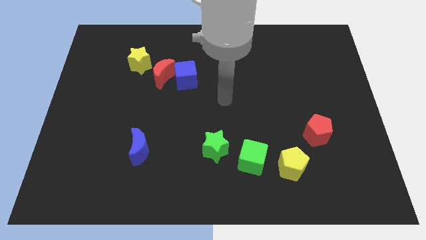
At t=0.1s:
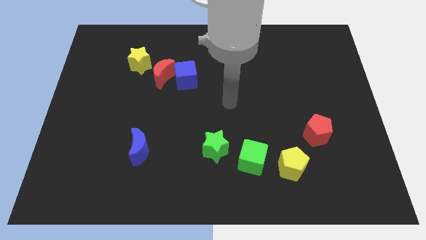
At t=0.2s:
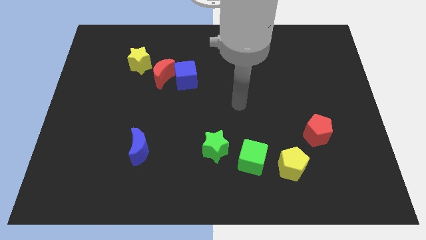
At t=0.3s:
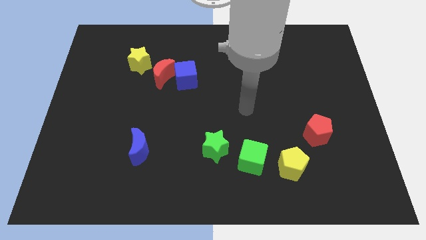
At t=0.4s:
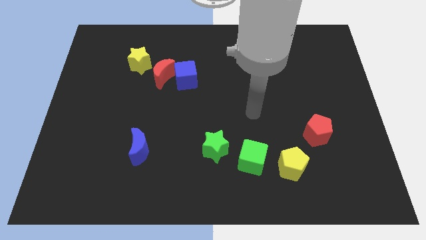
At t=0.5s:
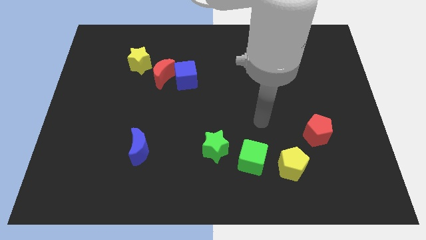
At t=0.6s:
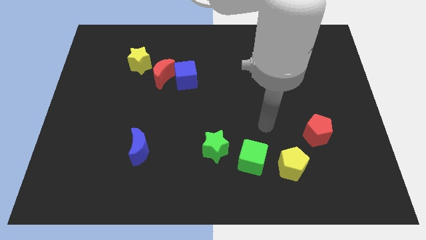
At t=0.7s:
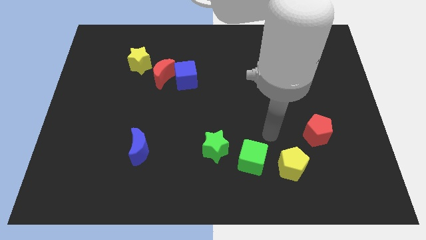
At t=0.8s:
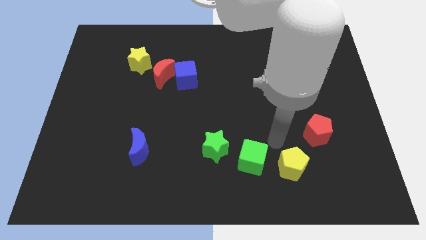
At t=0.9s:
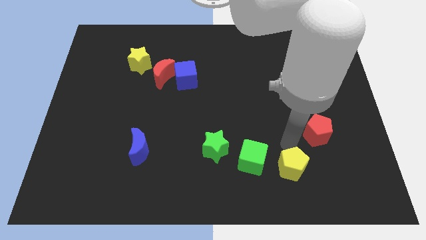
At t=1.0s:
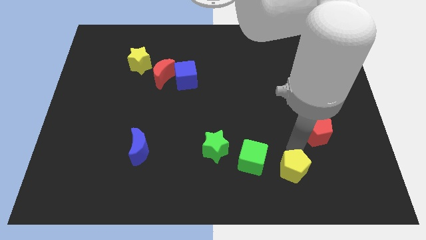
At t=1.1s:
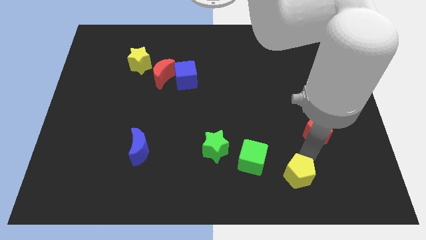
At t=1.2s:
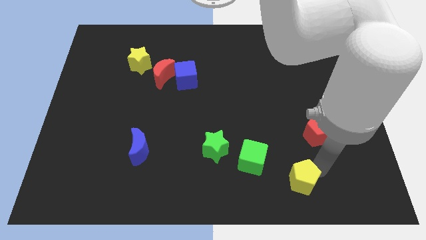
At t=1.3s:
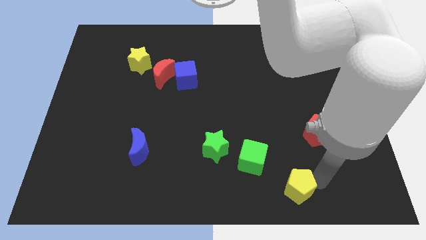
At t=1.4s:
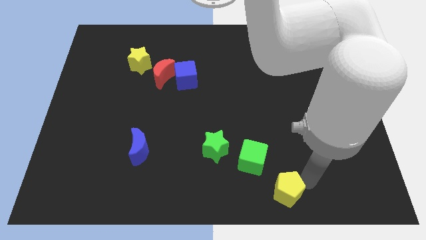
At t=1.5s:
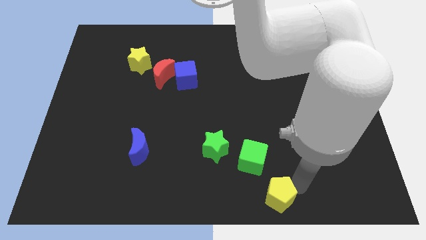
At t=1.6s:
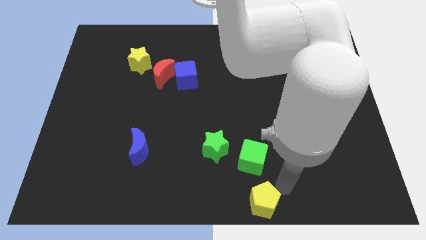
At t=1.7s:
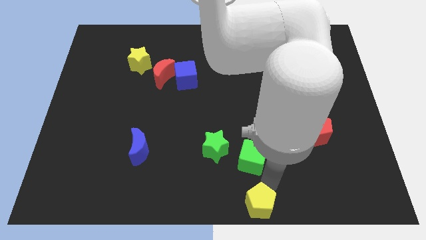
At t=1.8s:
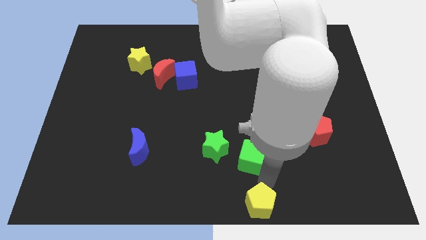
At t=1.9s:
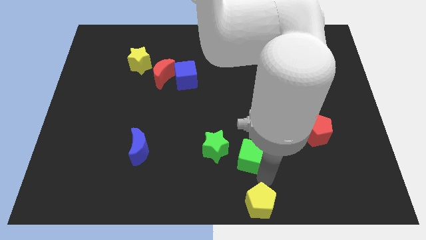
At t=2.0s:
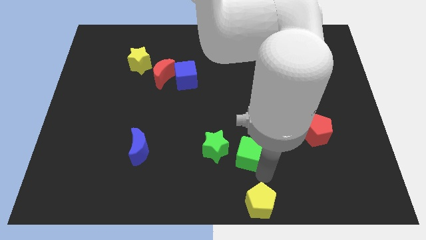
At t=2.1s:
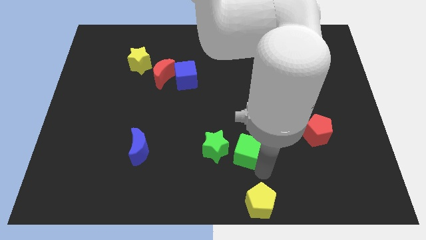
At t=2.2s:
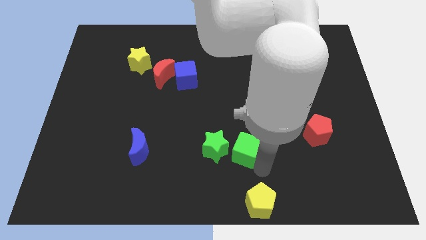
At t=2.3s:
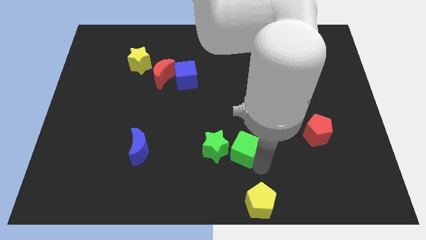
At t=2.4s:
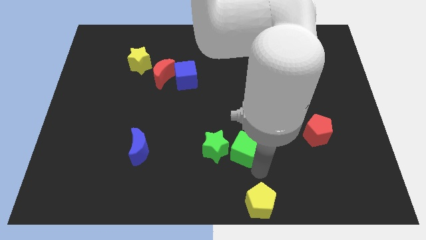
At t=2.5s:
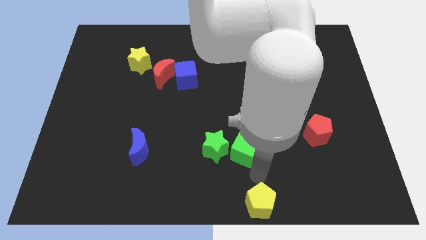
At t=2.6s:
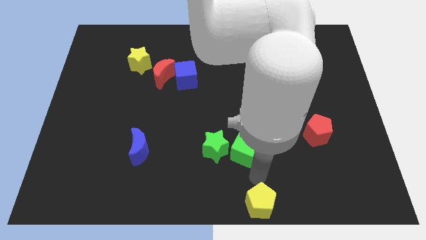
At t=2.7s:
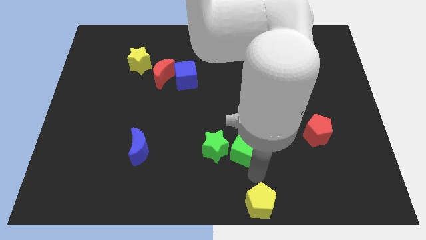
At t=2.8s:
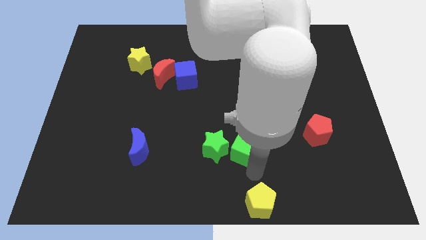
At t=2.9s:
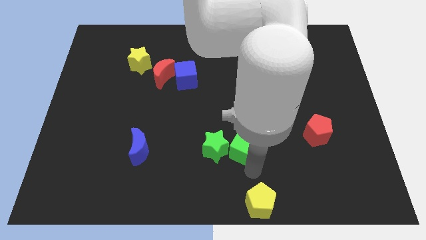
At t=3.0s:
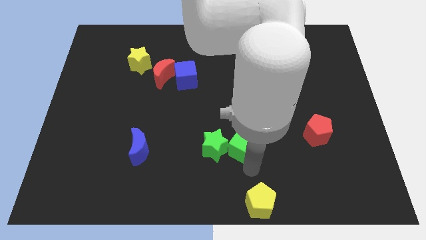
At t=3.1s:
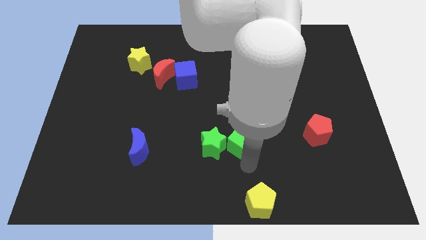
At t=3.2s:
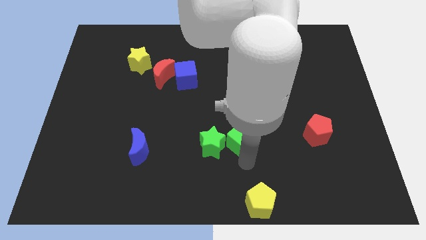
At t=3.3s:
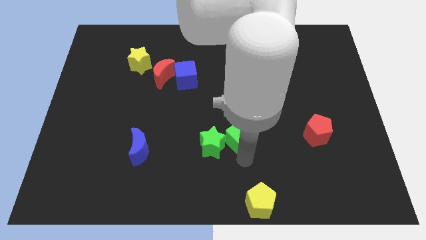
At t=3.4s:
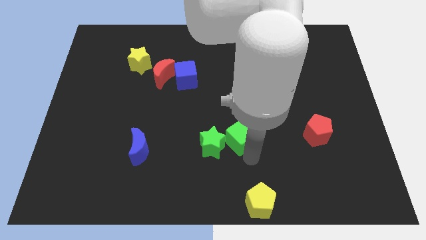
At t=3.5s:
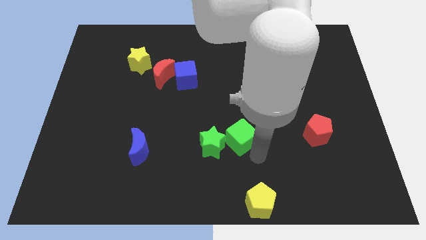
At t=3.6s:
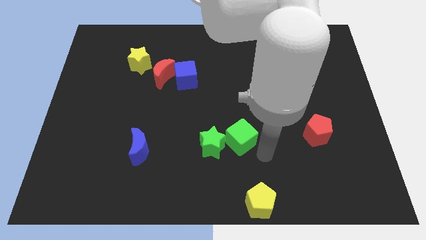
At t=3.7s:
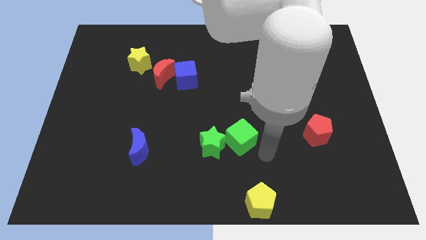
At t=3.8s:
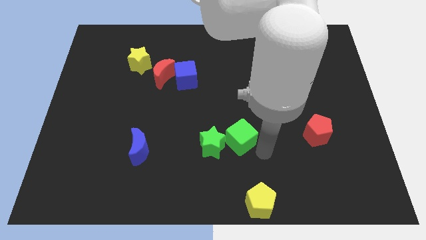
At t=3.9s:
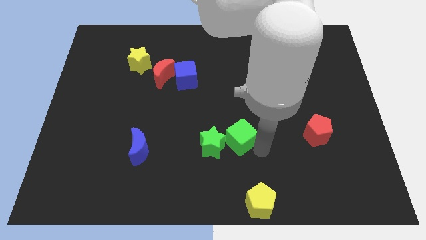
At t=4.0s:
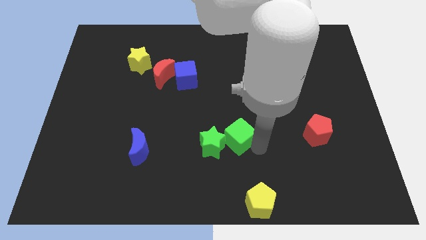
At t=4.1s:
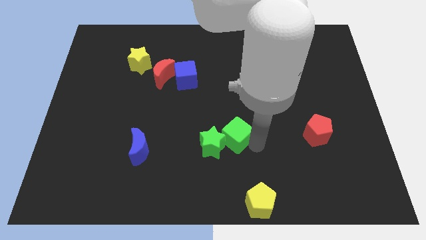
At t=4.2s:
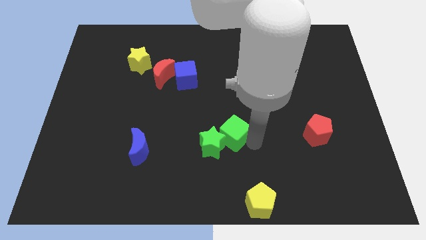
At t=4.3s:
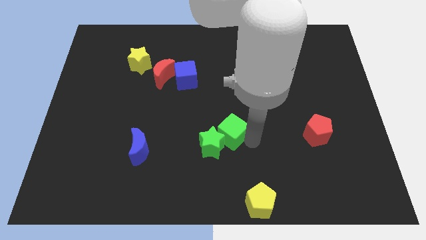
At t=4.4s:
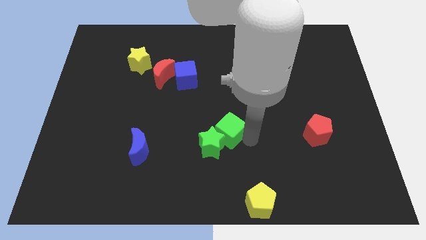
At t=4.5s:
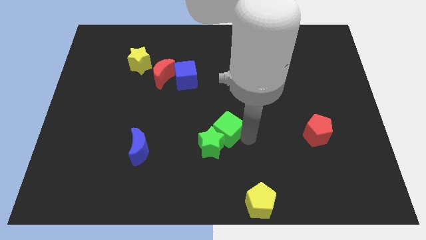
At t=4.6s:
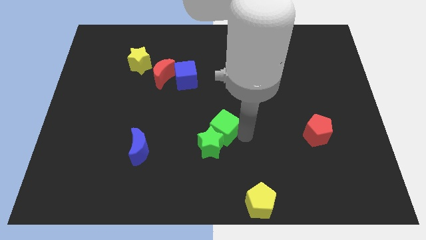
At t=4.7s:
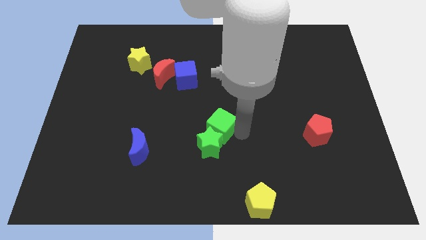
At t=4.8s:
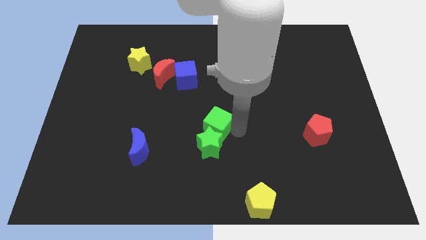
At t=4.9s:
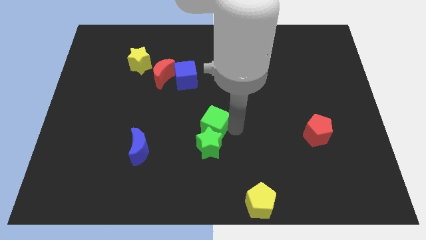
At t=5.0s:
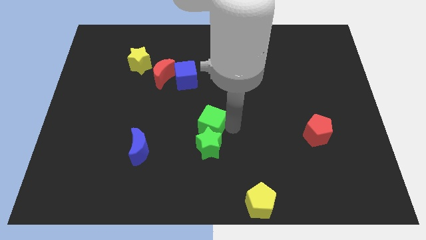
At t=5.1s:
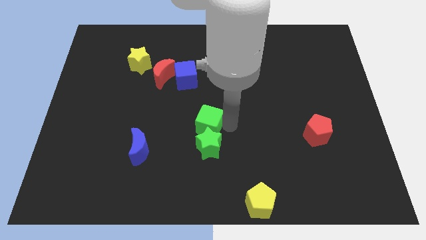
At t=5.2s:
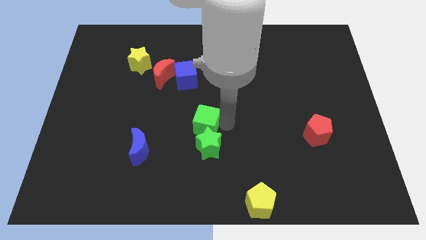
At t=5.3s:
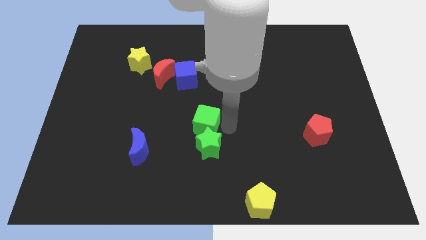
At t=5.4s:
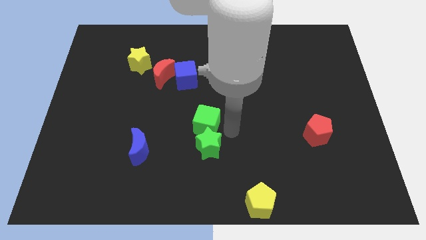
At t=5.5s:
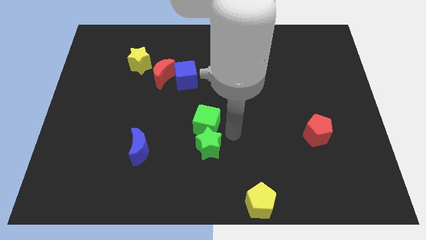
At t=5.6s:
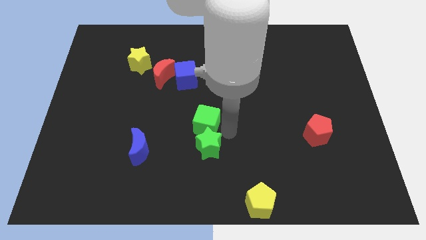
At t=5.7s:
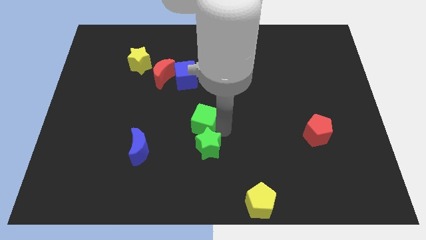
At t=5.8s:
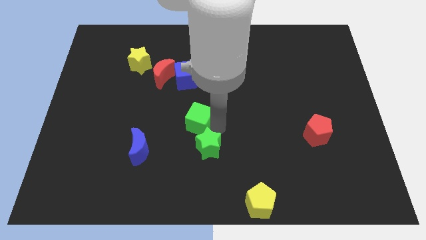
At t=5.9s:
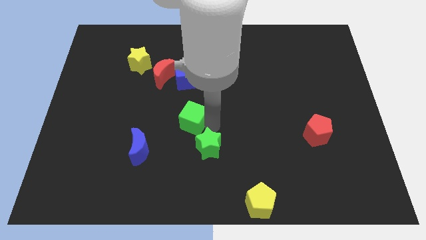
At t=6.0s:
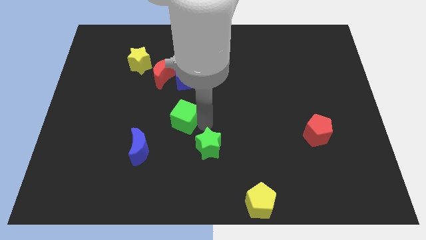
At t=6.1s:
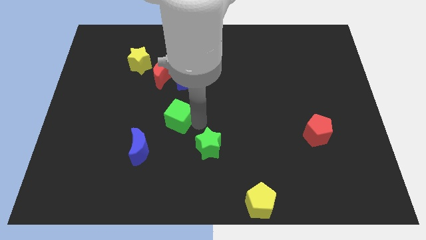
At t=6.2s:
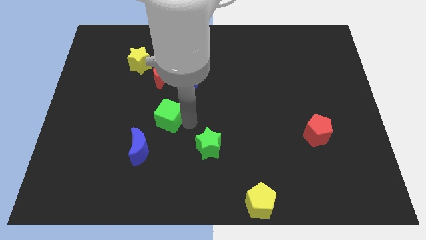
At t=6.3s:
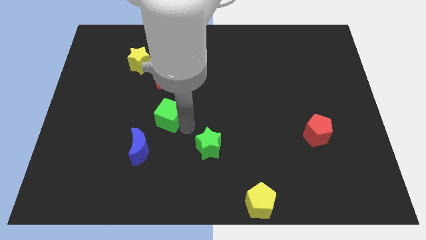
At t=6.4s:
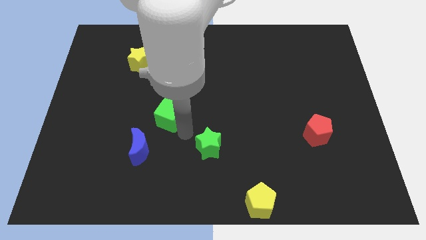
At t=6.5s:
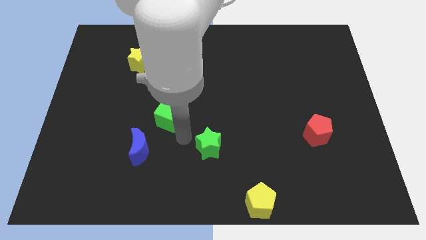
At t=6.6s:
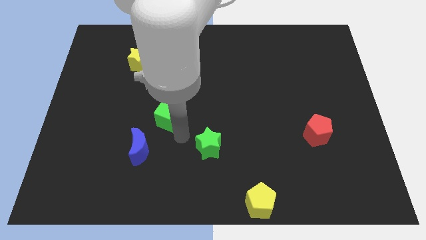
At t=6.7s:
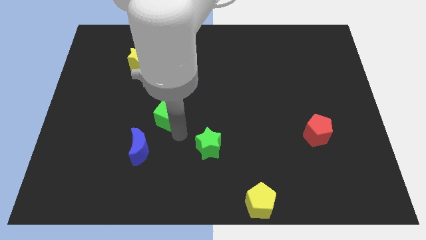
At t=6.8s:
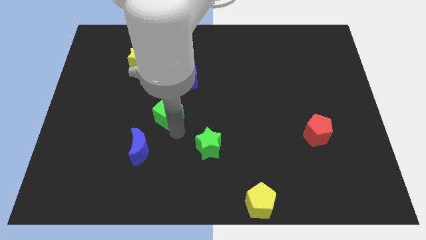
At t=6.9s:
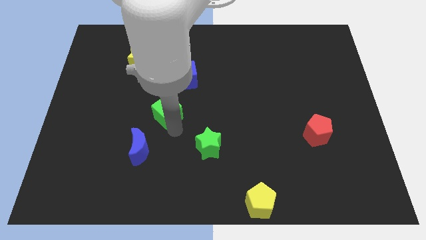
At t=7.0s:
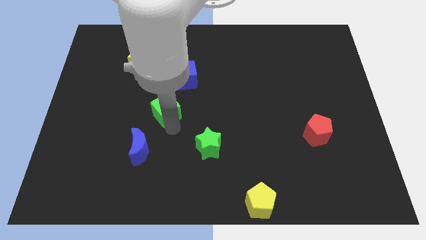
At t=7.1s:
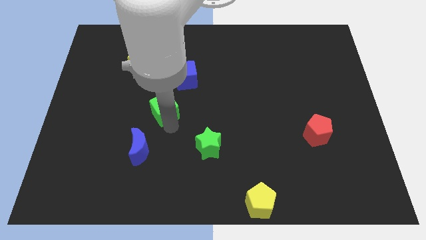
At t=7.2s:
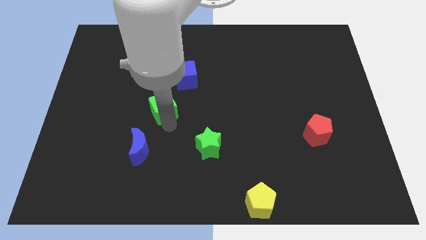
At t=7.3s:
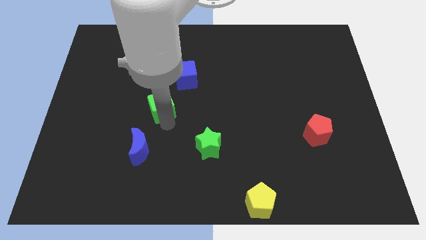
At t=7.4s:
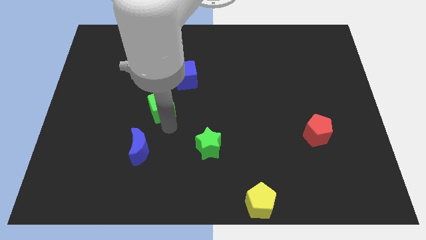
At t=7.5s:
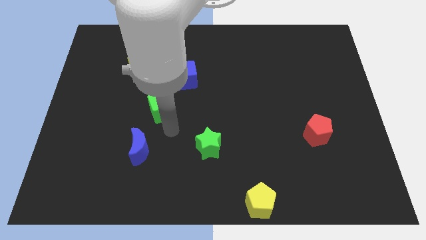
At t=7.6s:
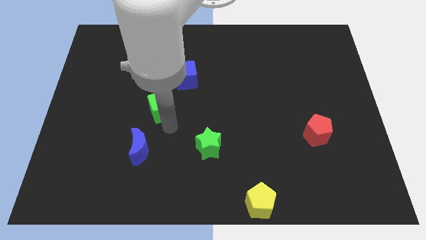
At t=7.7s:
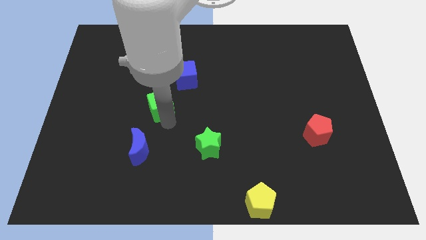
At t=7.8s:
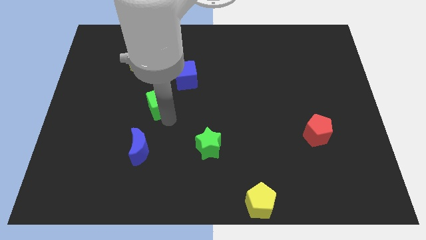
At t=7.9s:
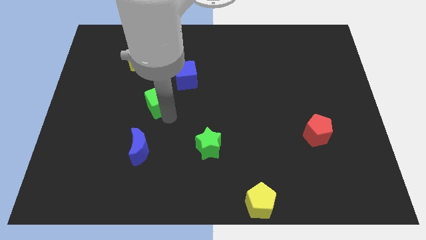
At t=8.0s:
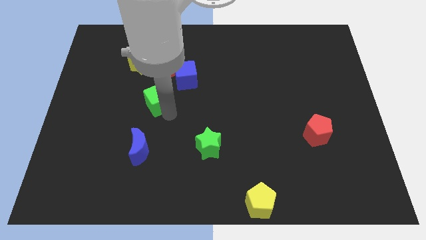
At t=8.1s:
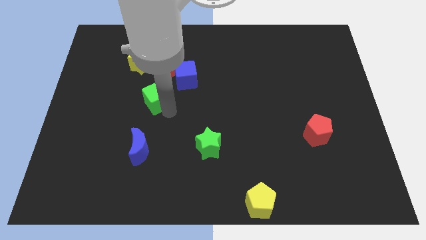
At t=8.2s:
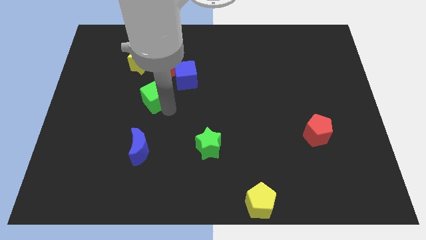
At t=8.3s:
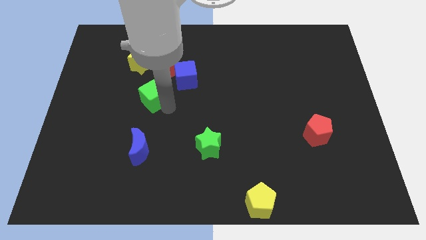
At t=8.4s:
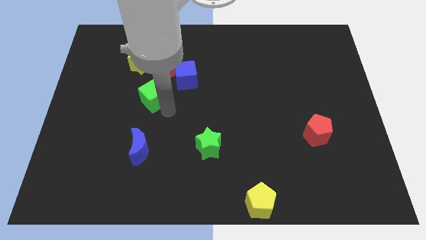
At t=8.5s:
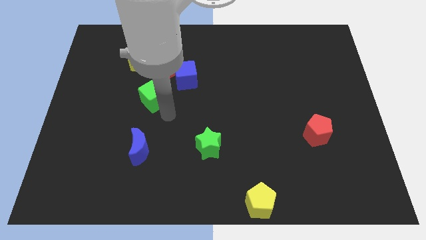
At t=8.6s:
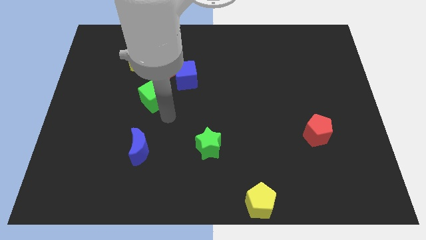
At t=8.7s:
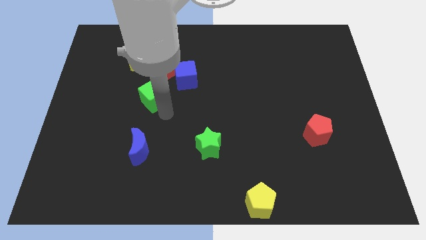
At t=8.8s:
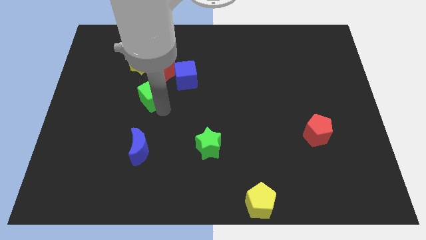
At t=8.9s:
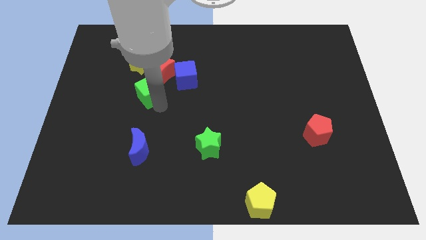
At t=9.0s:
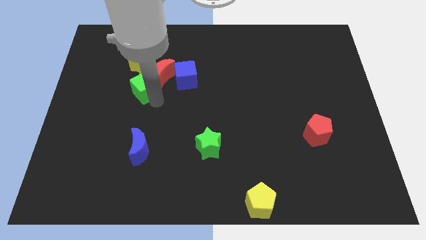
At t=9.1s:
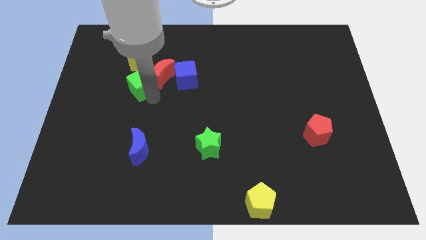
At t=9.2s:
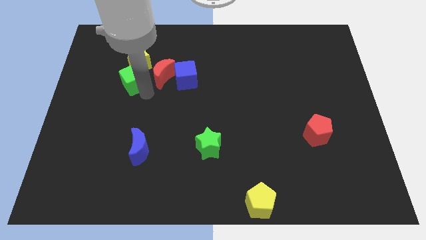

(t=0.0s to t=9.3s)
move the green cube to the yellow star
